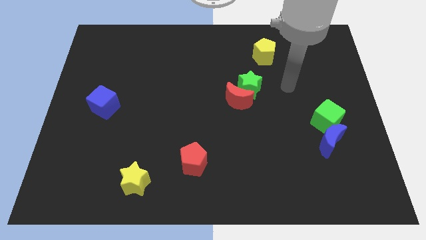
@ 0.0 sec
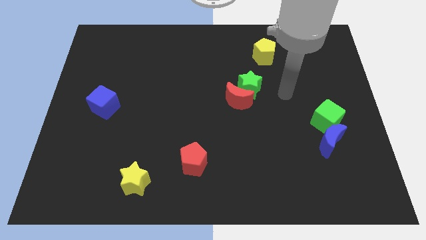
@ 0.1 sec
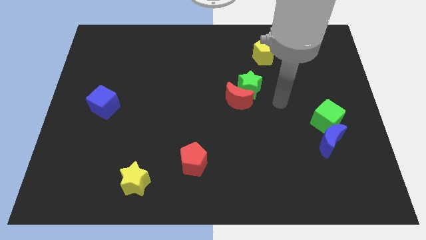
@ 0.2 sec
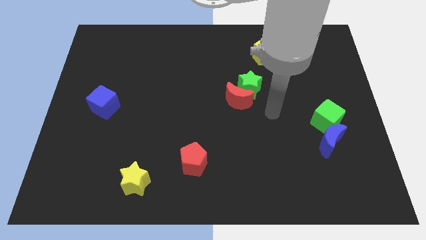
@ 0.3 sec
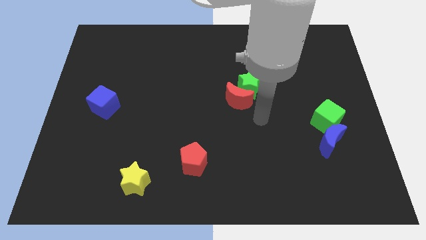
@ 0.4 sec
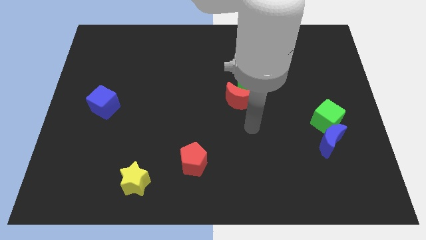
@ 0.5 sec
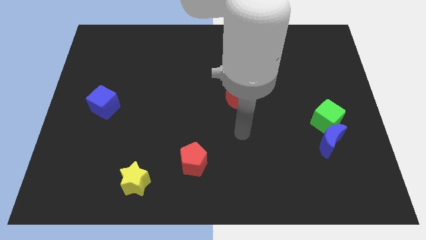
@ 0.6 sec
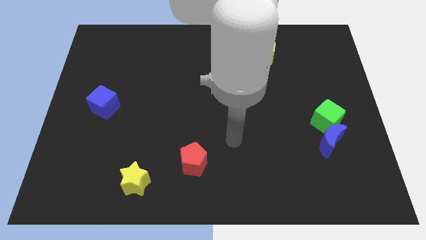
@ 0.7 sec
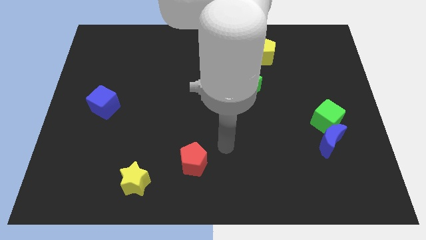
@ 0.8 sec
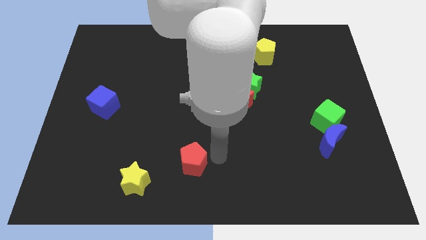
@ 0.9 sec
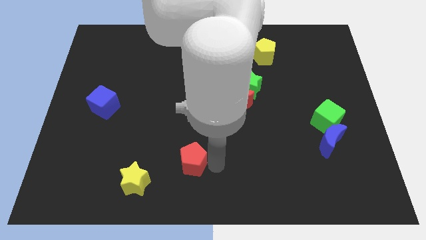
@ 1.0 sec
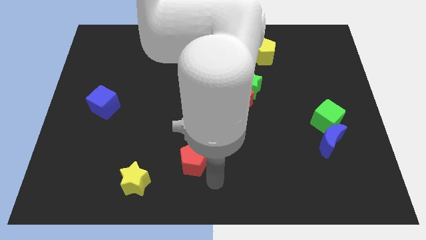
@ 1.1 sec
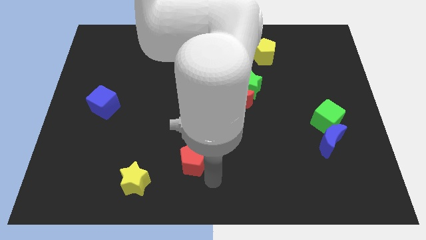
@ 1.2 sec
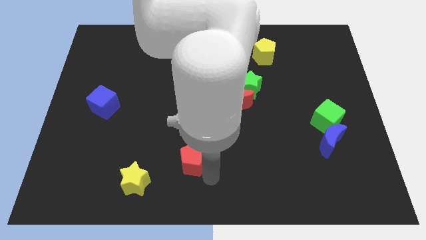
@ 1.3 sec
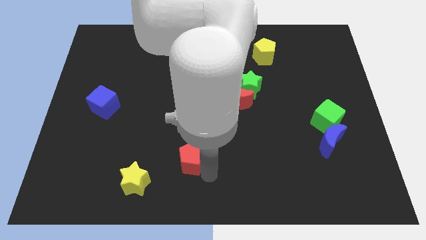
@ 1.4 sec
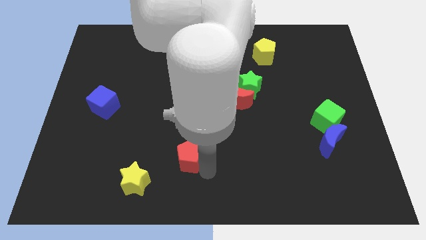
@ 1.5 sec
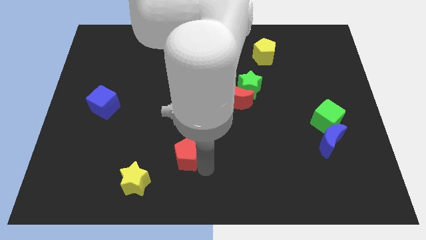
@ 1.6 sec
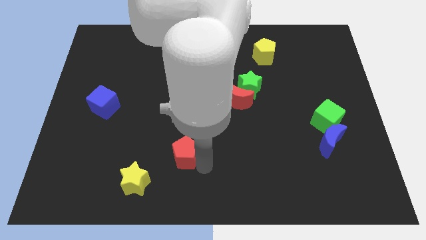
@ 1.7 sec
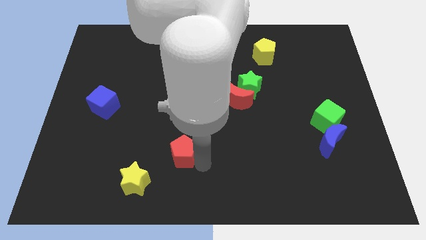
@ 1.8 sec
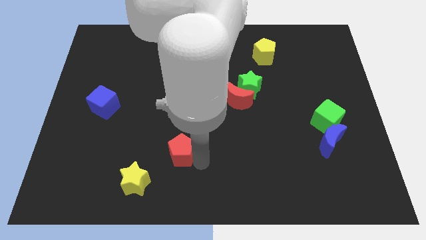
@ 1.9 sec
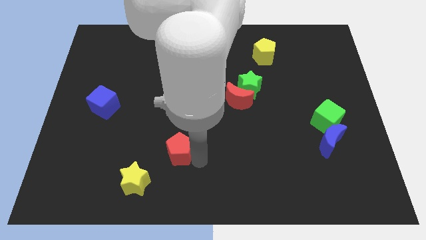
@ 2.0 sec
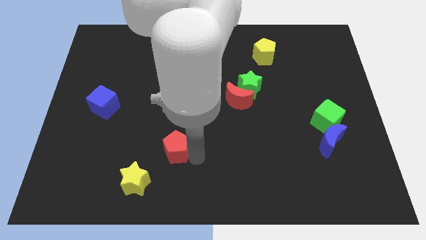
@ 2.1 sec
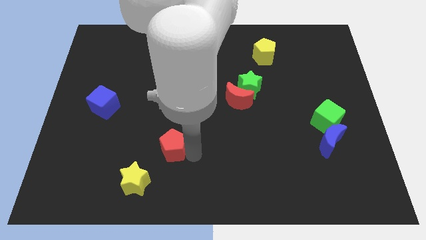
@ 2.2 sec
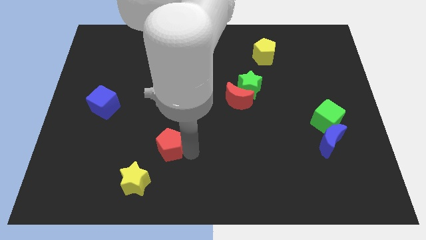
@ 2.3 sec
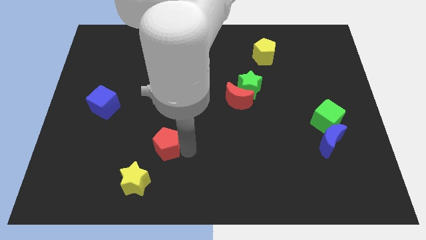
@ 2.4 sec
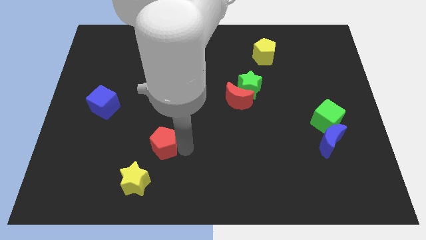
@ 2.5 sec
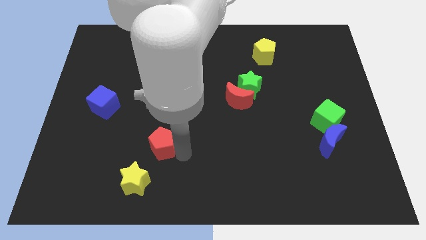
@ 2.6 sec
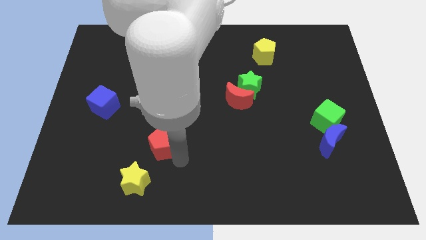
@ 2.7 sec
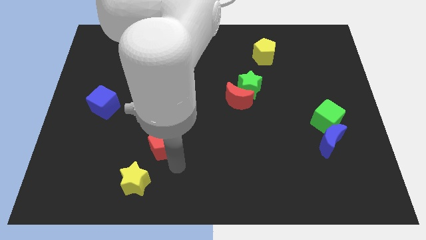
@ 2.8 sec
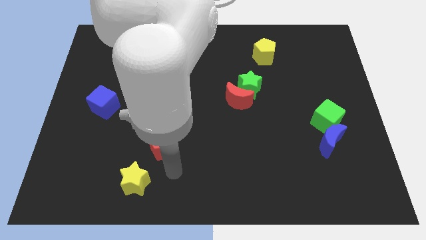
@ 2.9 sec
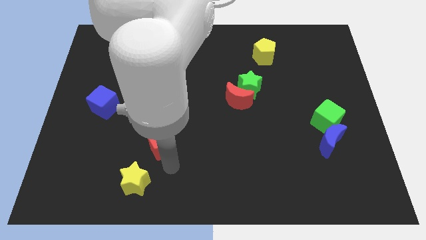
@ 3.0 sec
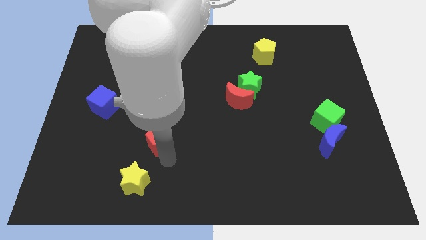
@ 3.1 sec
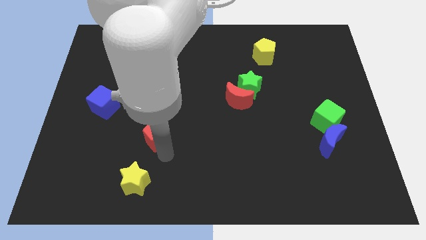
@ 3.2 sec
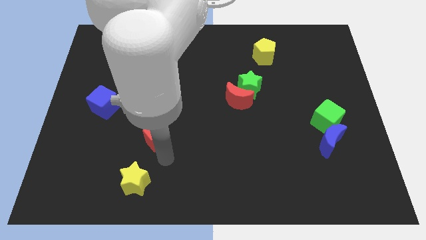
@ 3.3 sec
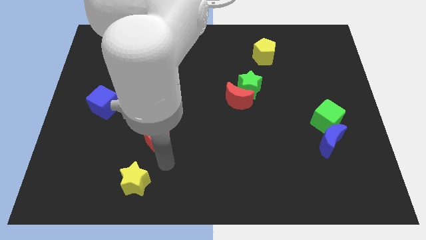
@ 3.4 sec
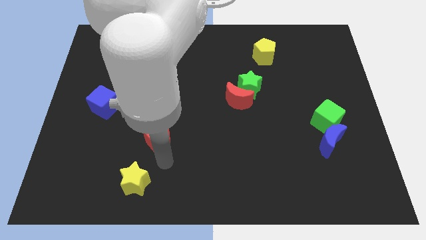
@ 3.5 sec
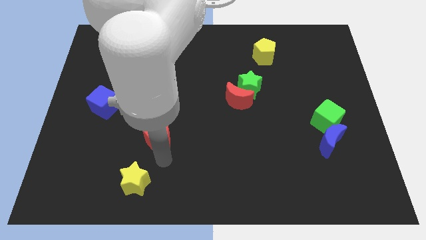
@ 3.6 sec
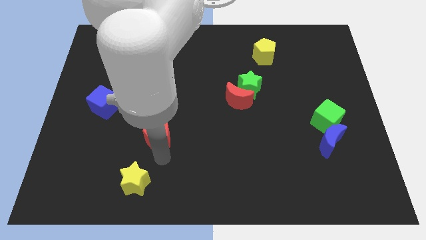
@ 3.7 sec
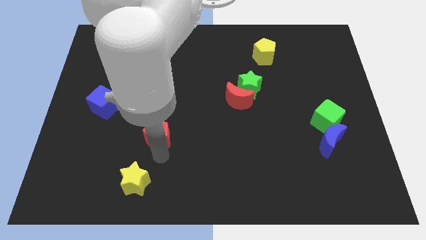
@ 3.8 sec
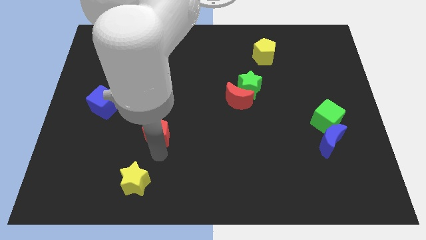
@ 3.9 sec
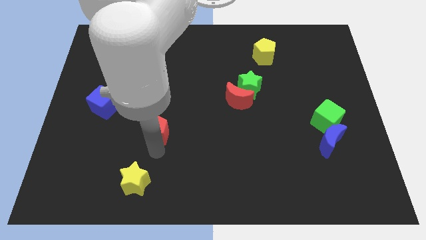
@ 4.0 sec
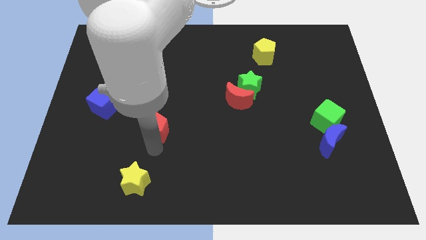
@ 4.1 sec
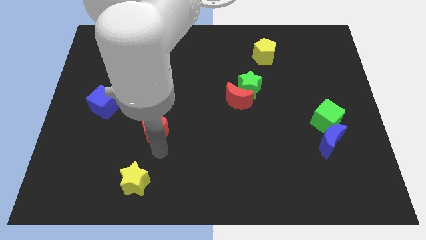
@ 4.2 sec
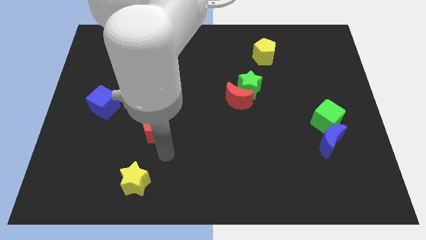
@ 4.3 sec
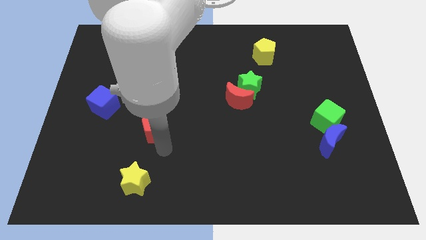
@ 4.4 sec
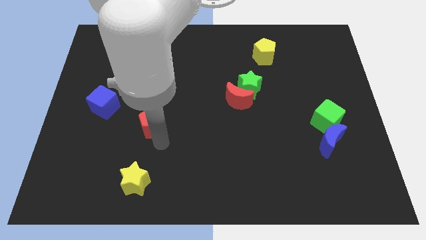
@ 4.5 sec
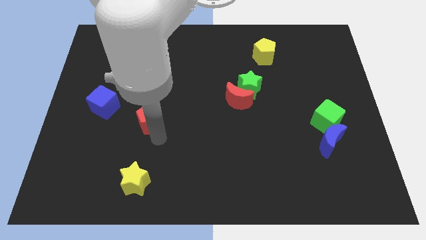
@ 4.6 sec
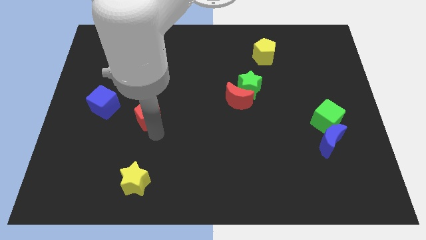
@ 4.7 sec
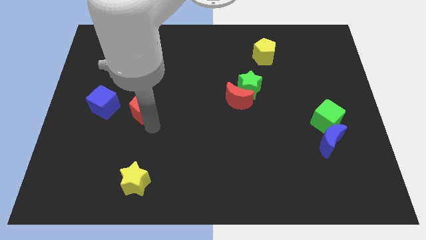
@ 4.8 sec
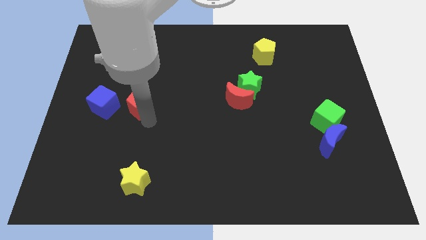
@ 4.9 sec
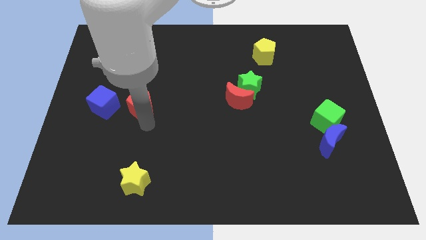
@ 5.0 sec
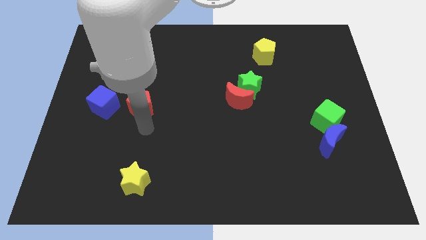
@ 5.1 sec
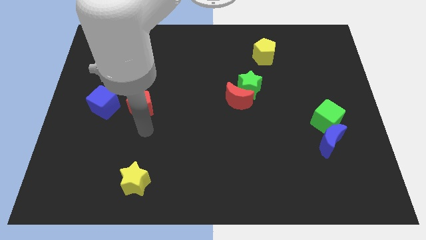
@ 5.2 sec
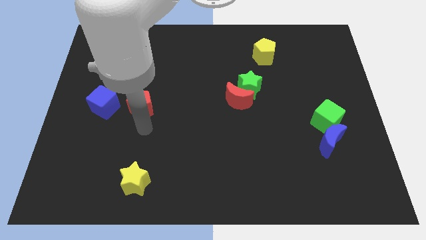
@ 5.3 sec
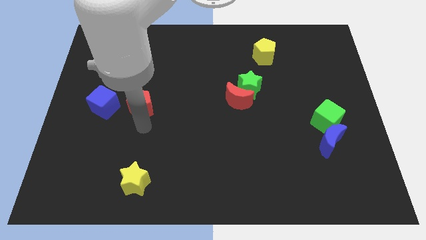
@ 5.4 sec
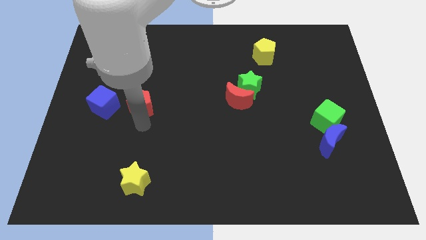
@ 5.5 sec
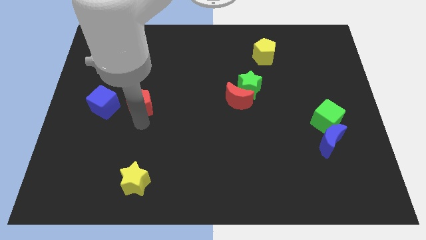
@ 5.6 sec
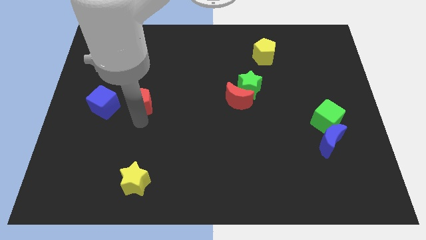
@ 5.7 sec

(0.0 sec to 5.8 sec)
slide the red pentagon diagonally upwards and left

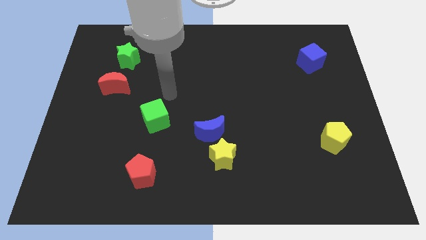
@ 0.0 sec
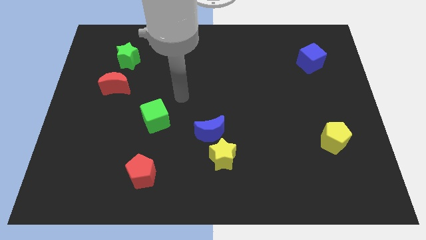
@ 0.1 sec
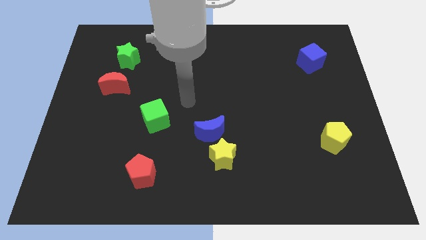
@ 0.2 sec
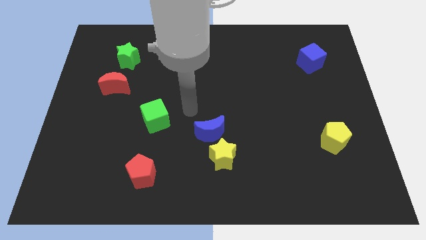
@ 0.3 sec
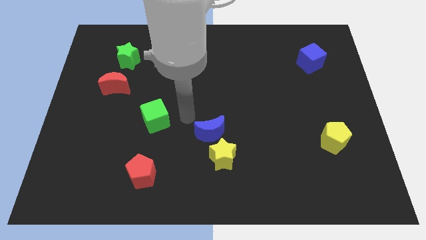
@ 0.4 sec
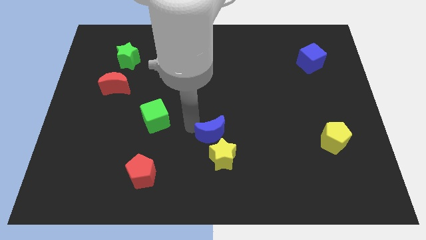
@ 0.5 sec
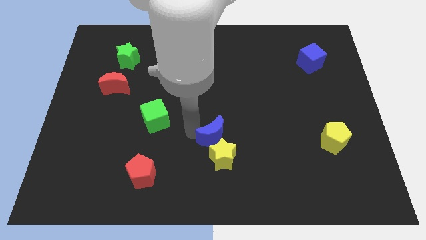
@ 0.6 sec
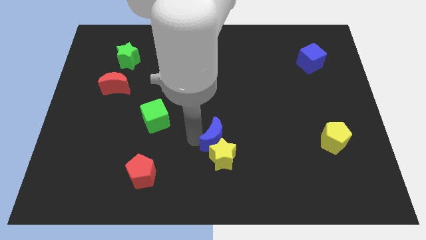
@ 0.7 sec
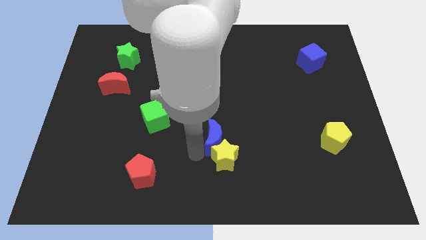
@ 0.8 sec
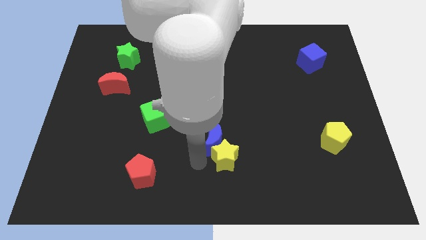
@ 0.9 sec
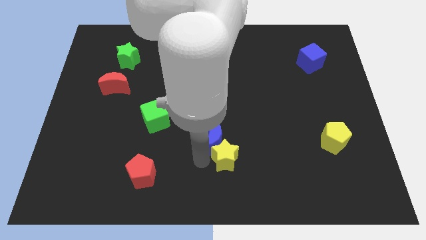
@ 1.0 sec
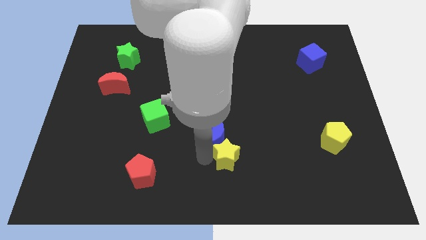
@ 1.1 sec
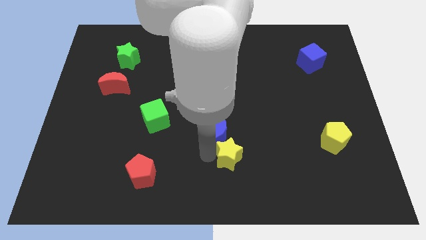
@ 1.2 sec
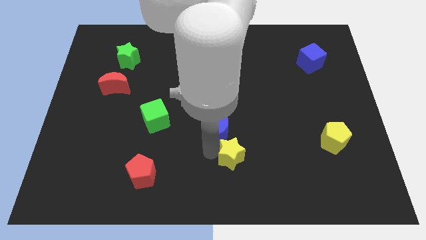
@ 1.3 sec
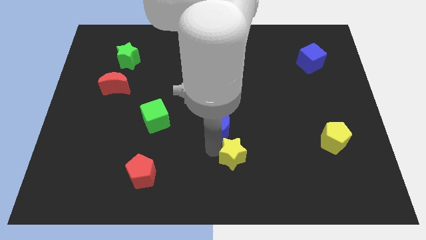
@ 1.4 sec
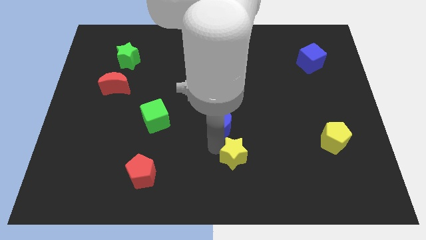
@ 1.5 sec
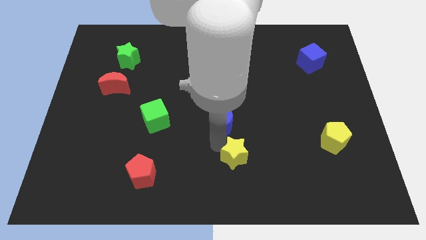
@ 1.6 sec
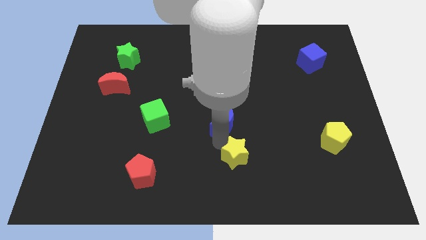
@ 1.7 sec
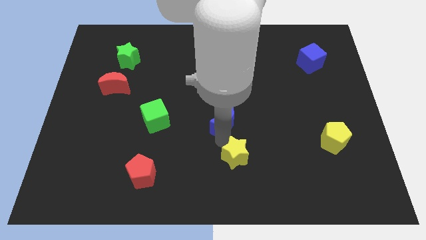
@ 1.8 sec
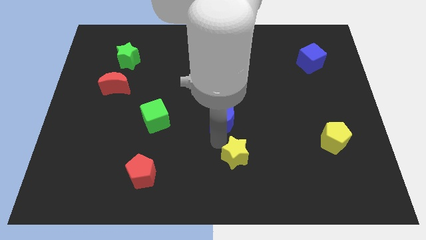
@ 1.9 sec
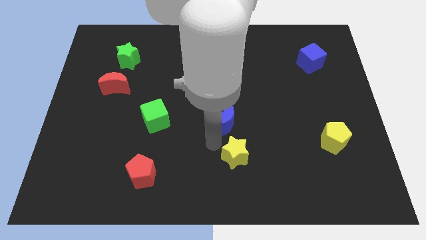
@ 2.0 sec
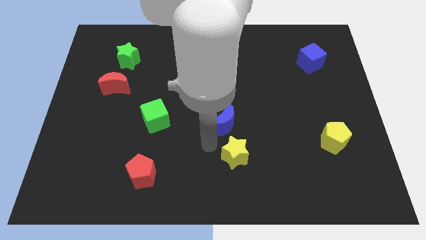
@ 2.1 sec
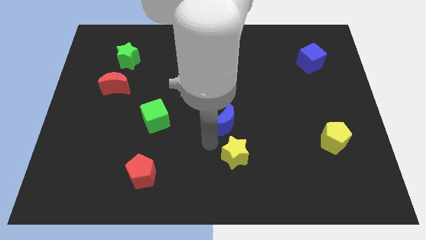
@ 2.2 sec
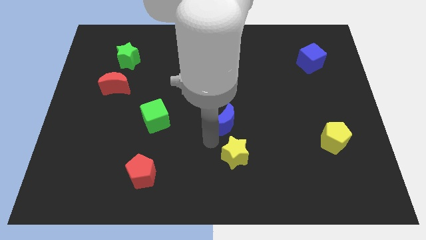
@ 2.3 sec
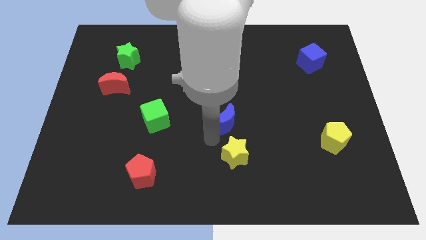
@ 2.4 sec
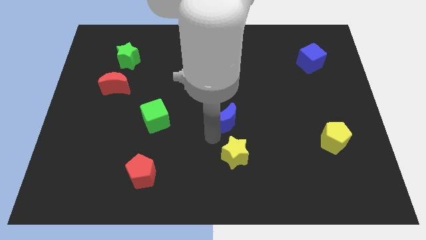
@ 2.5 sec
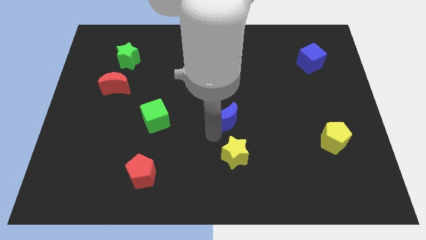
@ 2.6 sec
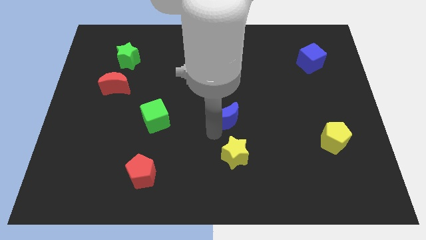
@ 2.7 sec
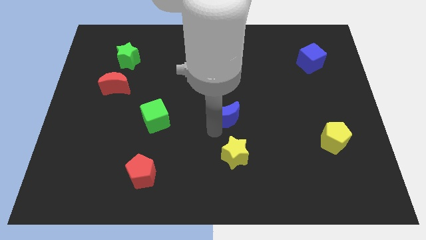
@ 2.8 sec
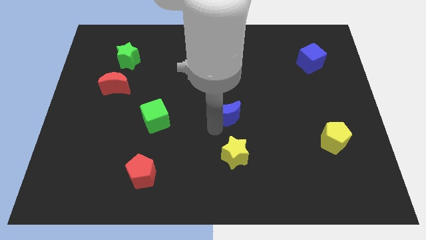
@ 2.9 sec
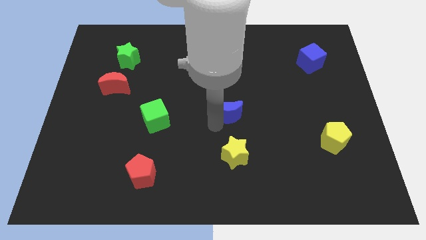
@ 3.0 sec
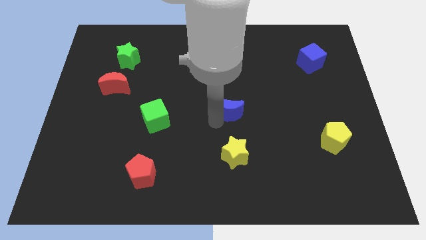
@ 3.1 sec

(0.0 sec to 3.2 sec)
push the blue moon a little bit diagonally up and to the right
